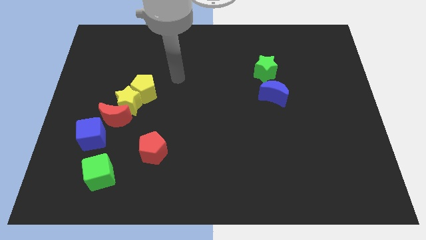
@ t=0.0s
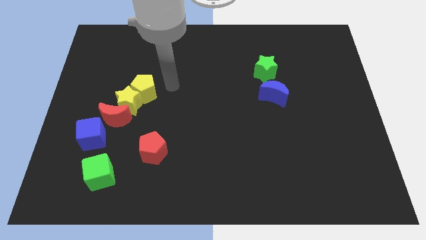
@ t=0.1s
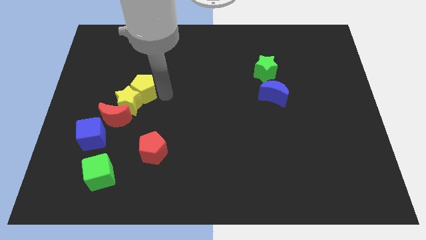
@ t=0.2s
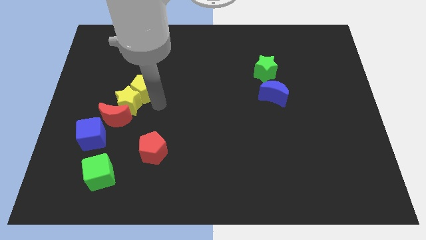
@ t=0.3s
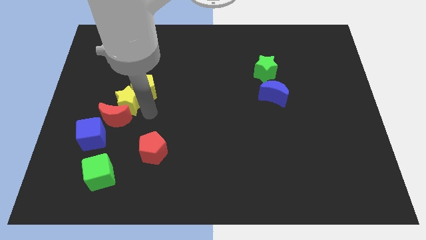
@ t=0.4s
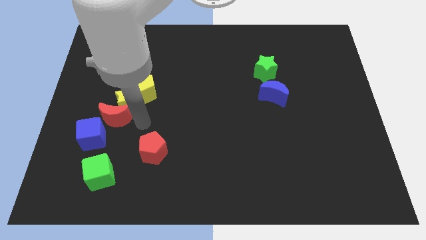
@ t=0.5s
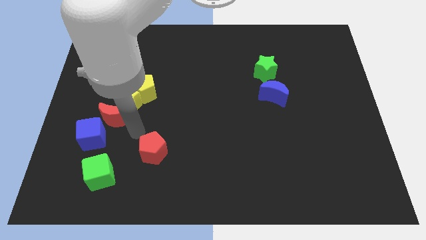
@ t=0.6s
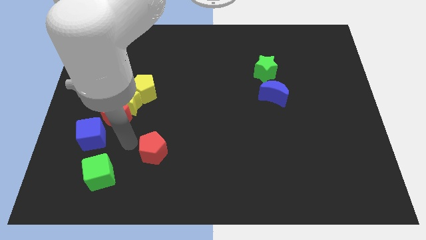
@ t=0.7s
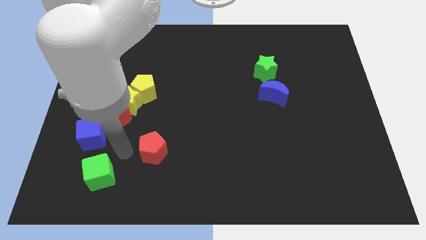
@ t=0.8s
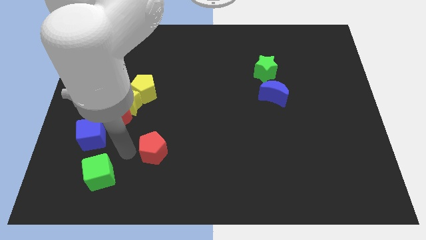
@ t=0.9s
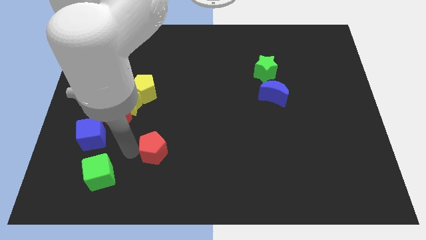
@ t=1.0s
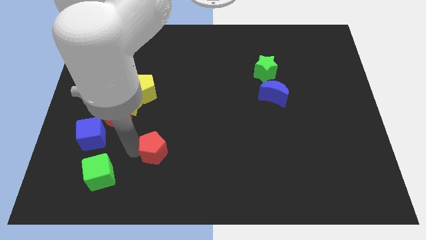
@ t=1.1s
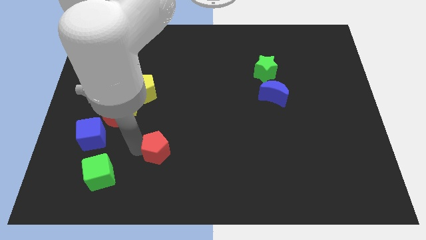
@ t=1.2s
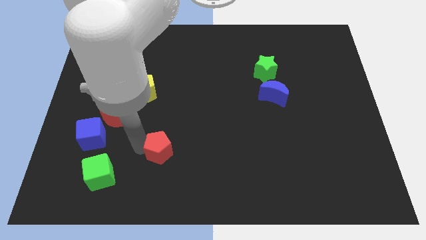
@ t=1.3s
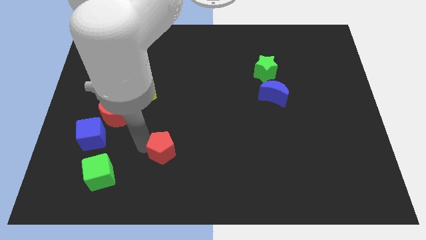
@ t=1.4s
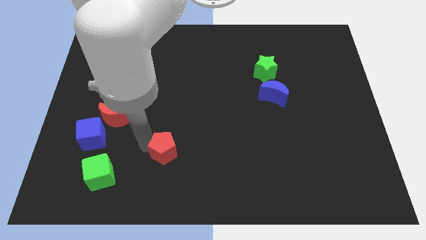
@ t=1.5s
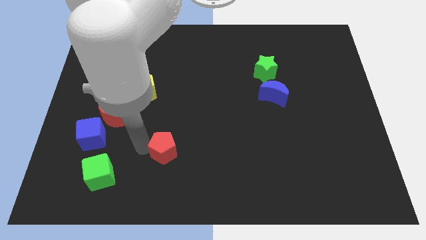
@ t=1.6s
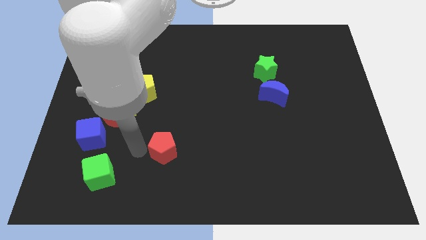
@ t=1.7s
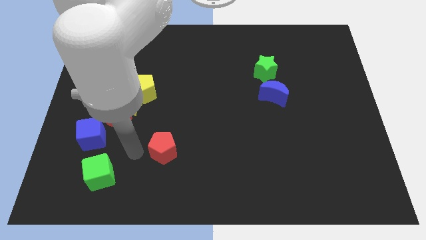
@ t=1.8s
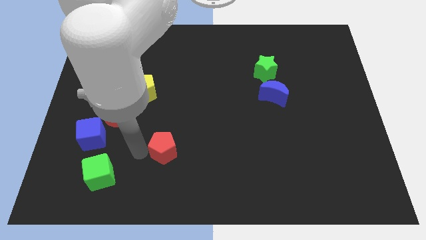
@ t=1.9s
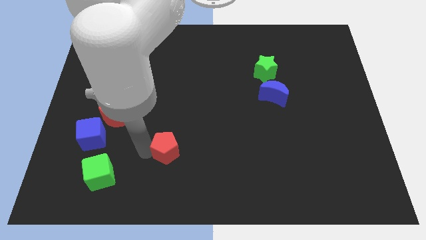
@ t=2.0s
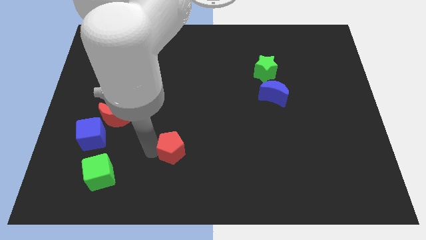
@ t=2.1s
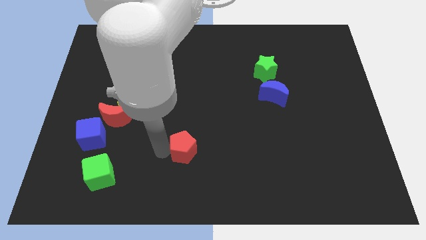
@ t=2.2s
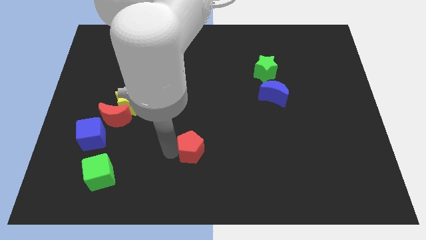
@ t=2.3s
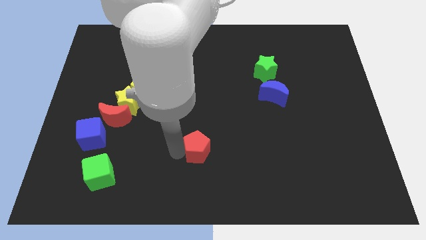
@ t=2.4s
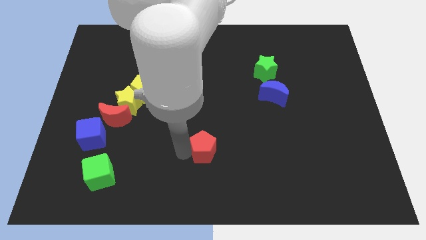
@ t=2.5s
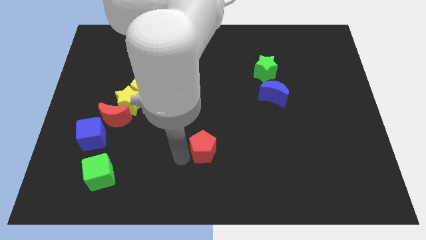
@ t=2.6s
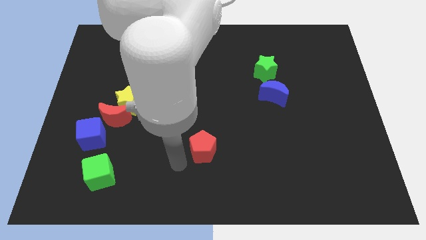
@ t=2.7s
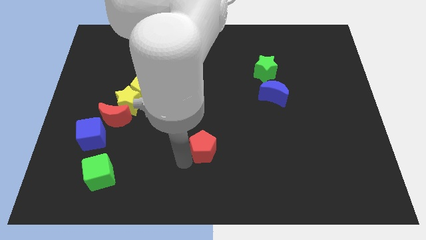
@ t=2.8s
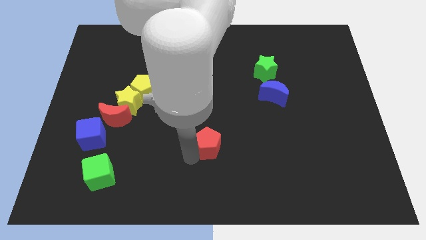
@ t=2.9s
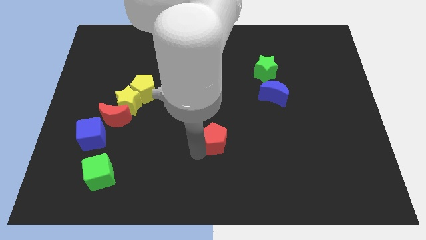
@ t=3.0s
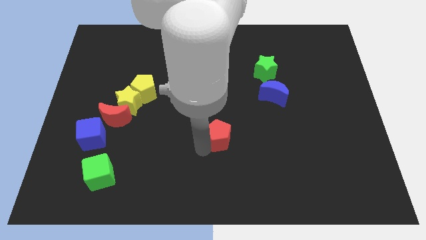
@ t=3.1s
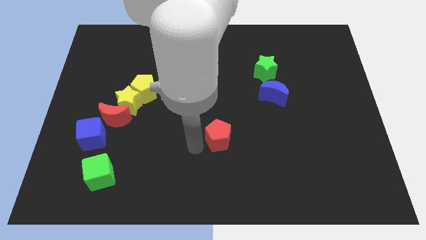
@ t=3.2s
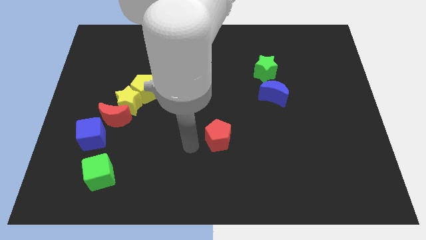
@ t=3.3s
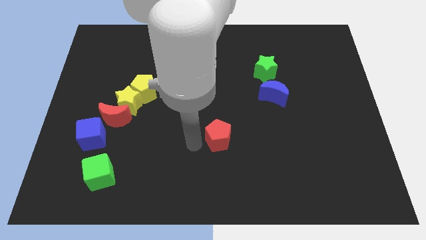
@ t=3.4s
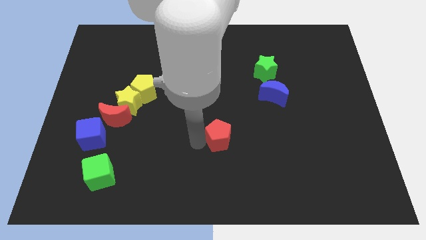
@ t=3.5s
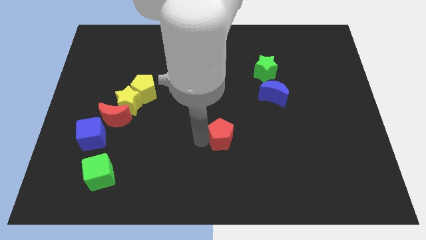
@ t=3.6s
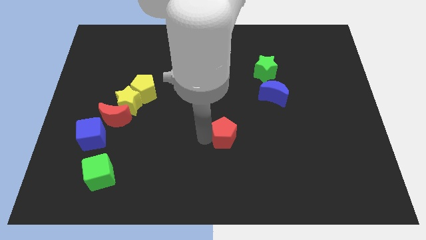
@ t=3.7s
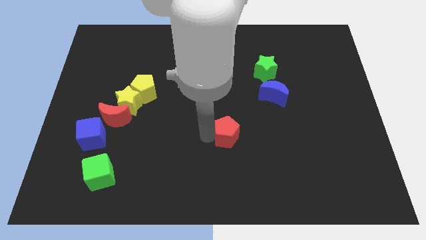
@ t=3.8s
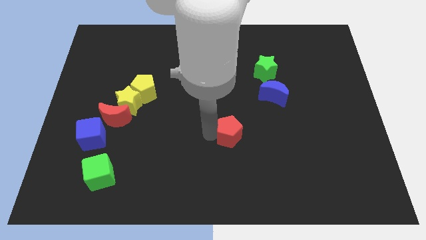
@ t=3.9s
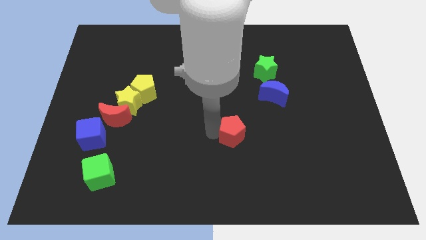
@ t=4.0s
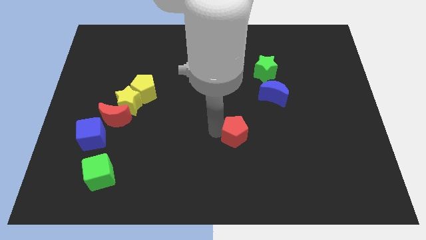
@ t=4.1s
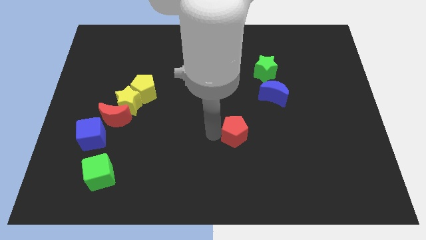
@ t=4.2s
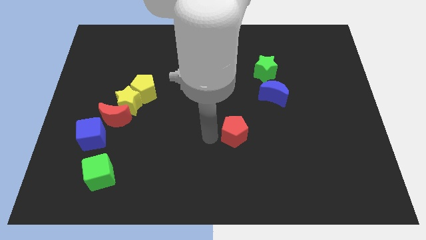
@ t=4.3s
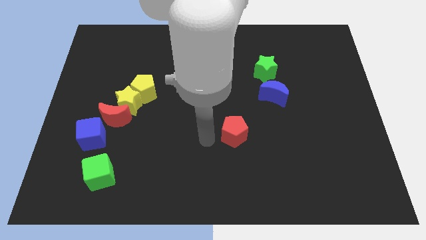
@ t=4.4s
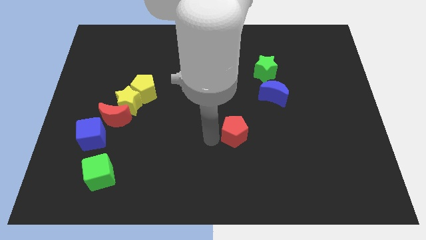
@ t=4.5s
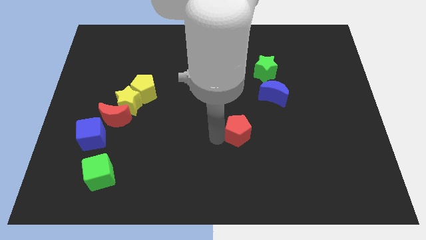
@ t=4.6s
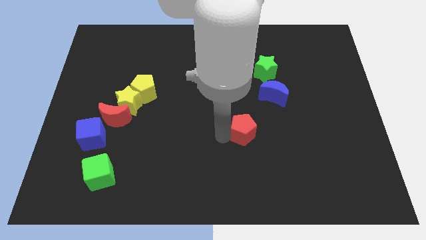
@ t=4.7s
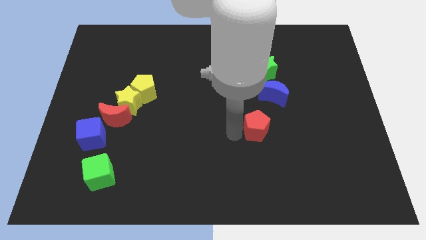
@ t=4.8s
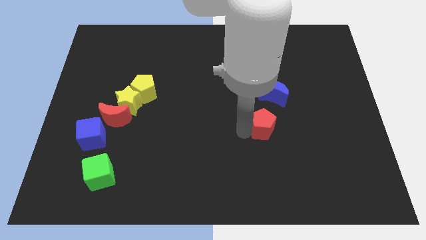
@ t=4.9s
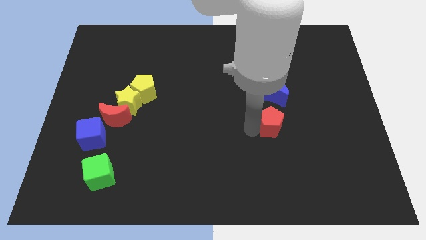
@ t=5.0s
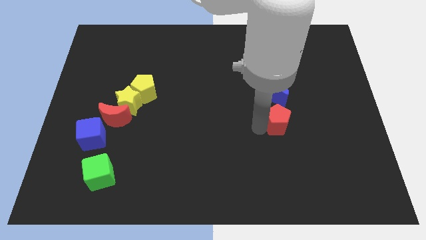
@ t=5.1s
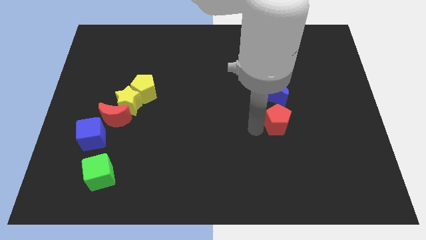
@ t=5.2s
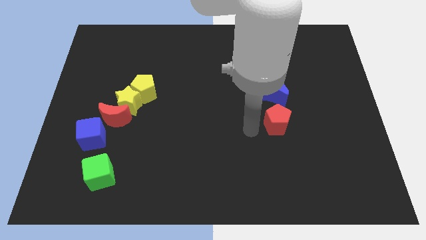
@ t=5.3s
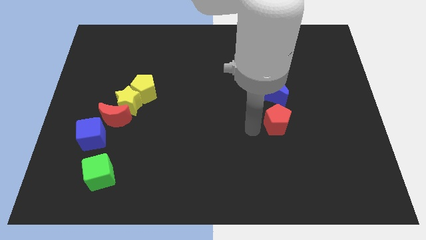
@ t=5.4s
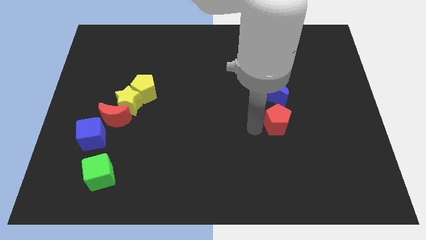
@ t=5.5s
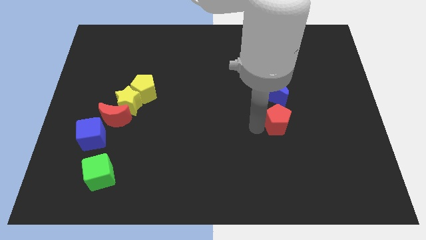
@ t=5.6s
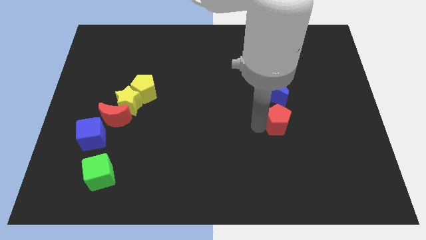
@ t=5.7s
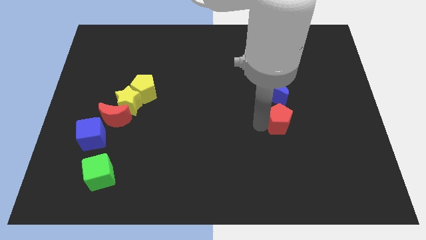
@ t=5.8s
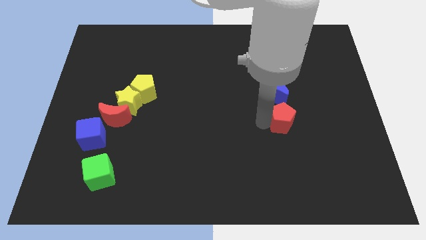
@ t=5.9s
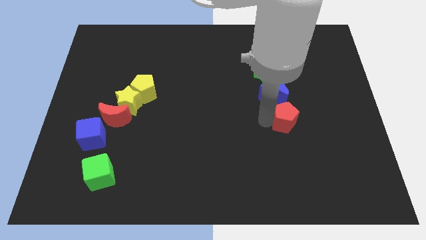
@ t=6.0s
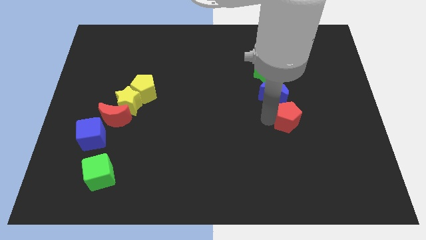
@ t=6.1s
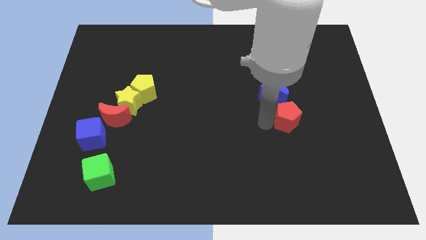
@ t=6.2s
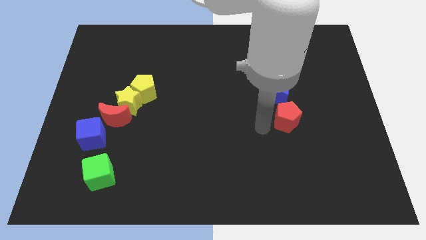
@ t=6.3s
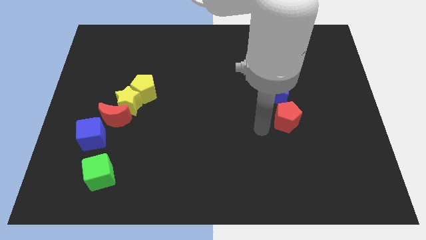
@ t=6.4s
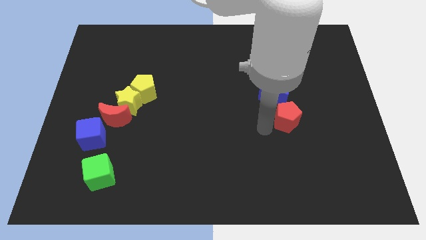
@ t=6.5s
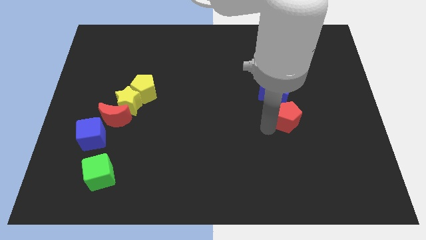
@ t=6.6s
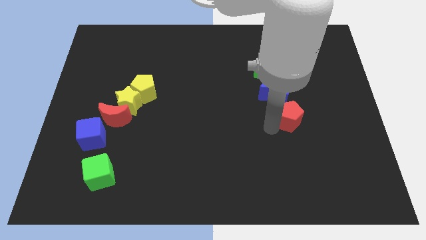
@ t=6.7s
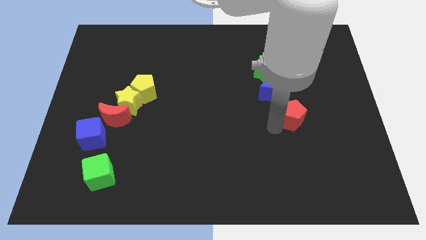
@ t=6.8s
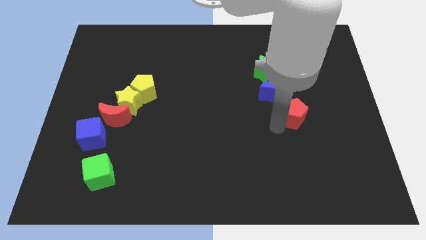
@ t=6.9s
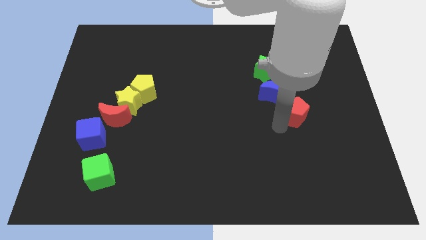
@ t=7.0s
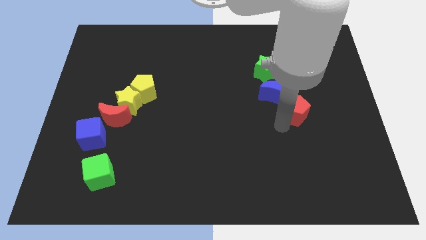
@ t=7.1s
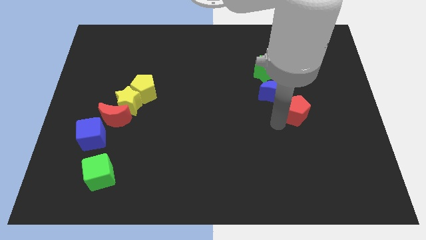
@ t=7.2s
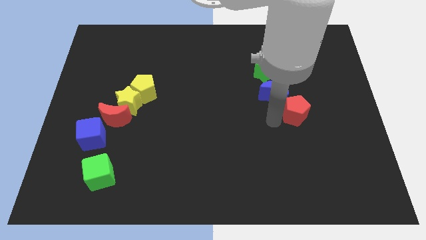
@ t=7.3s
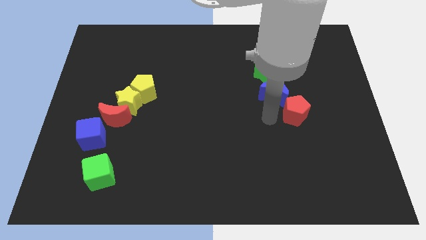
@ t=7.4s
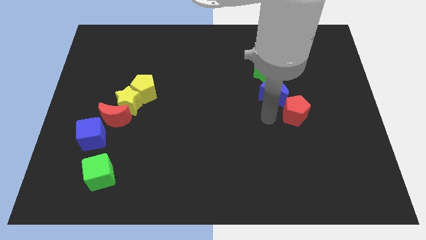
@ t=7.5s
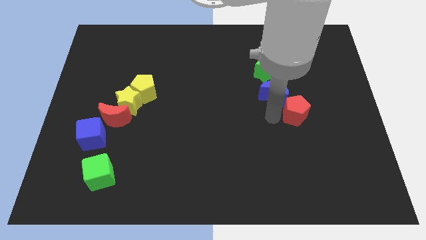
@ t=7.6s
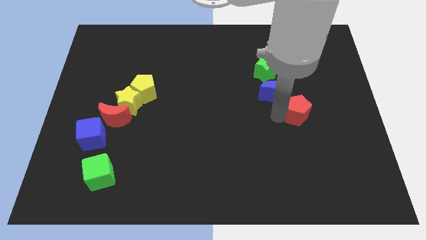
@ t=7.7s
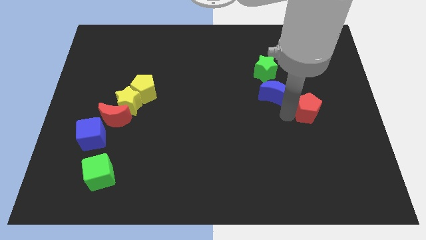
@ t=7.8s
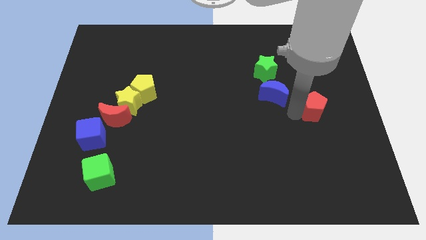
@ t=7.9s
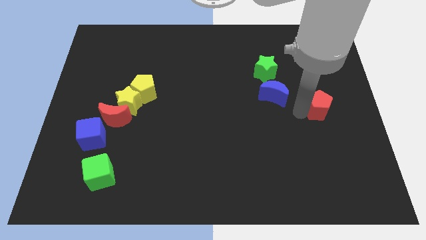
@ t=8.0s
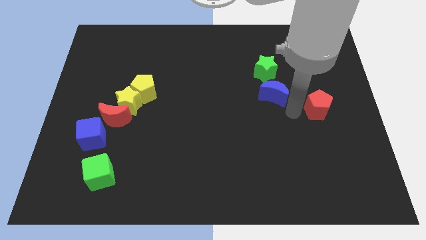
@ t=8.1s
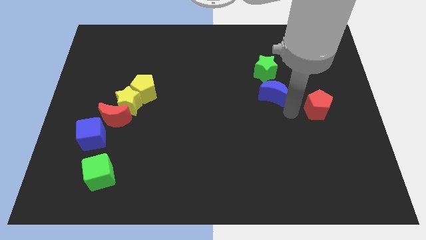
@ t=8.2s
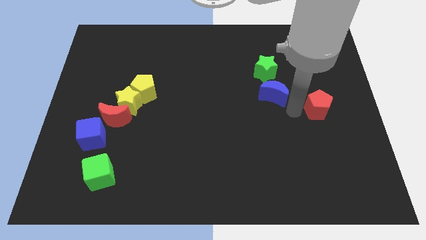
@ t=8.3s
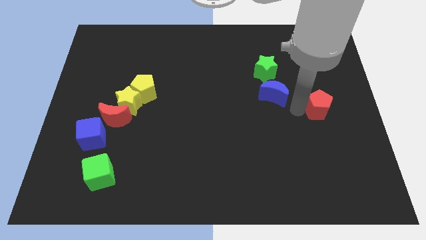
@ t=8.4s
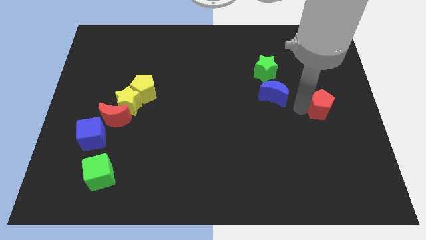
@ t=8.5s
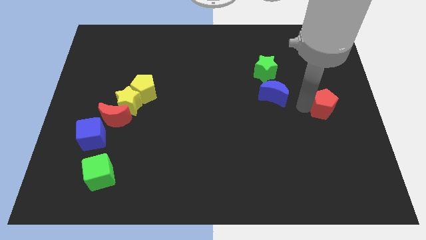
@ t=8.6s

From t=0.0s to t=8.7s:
slide the red pentagon to the right side
